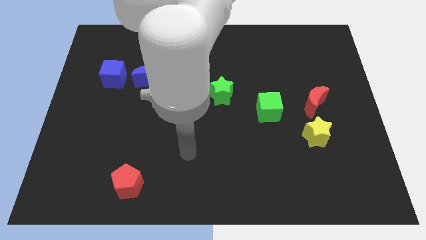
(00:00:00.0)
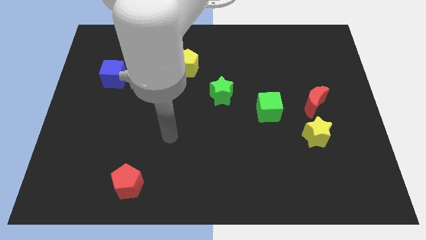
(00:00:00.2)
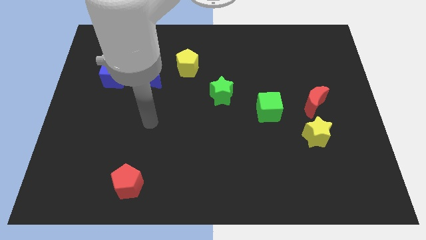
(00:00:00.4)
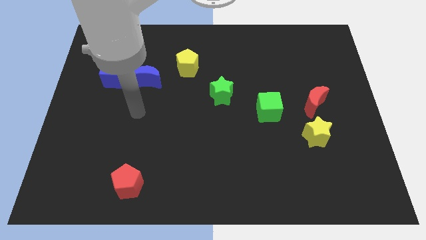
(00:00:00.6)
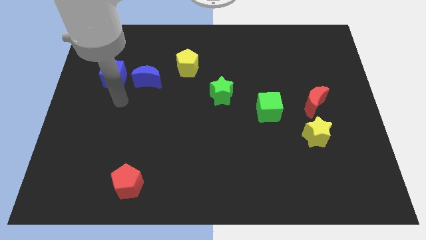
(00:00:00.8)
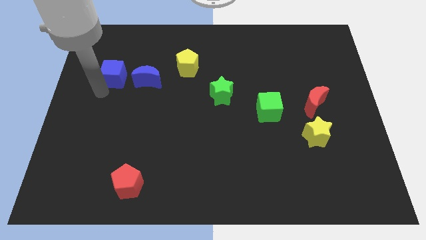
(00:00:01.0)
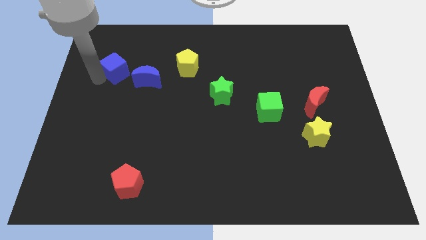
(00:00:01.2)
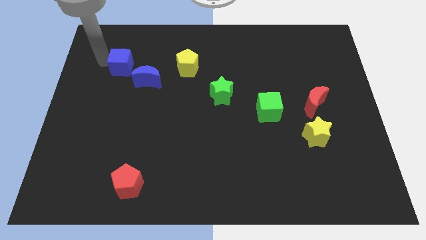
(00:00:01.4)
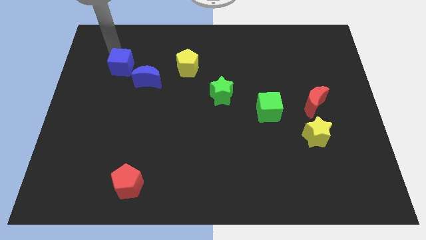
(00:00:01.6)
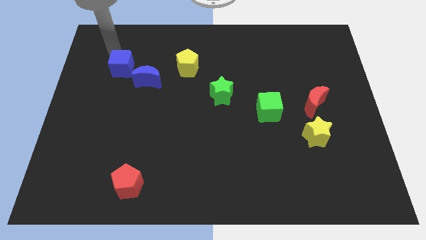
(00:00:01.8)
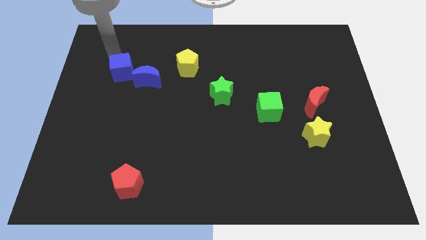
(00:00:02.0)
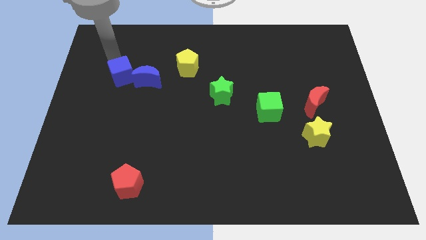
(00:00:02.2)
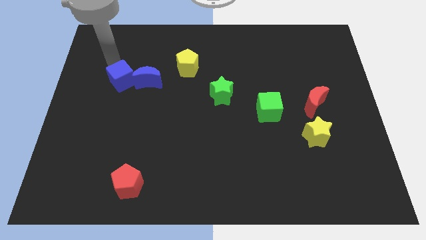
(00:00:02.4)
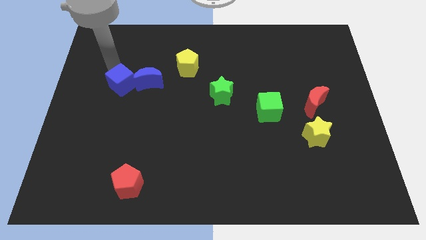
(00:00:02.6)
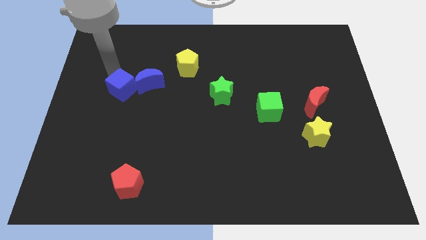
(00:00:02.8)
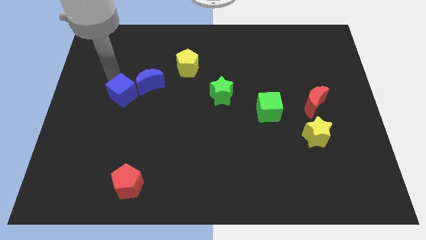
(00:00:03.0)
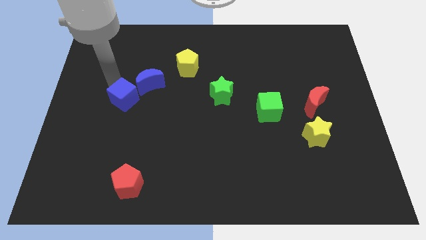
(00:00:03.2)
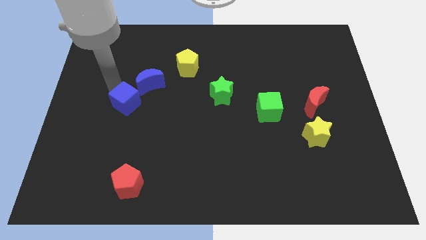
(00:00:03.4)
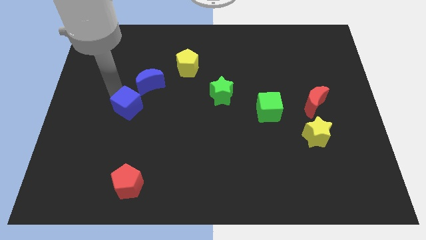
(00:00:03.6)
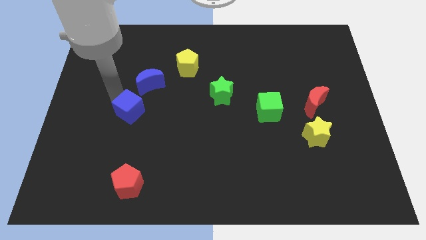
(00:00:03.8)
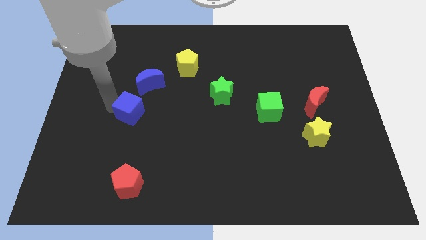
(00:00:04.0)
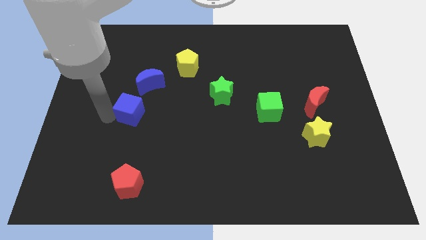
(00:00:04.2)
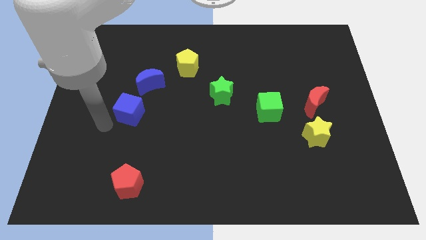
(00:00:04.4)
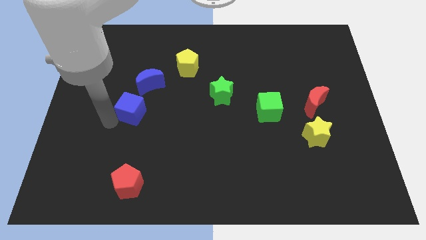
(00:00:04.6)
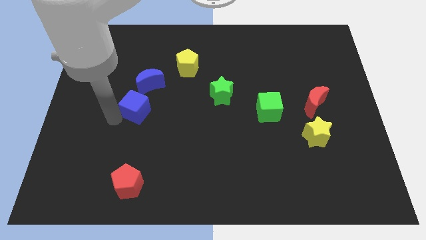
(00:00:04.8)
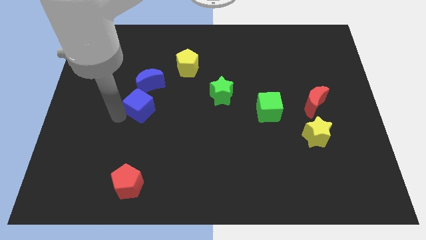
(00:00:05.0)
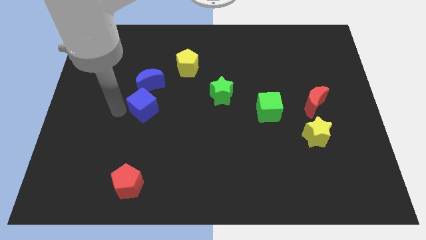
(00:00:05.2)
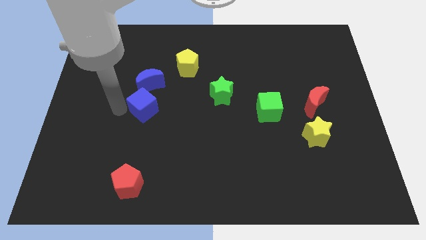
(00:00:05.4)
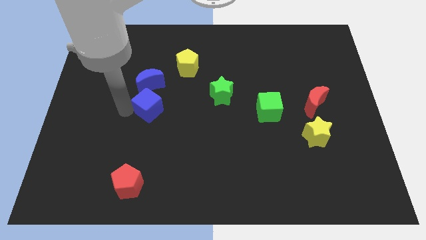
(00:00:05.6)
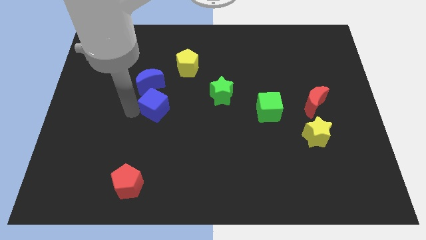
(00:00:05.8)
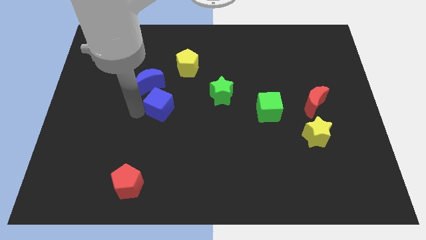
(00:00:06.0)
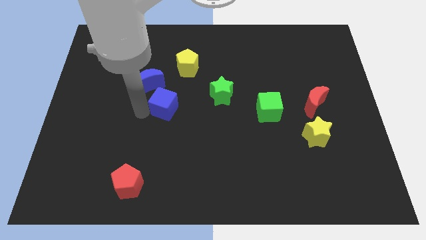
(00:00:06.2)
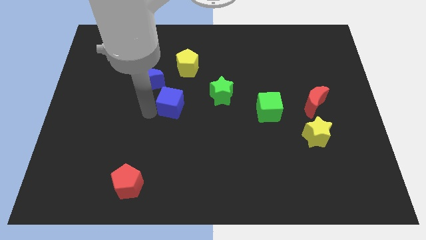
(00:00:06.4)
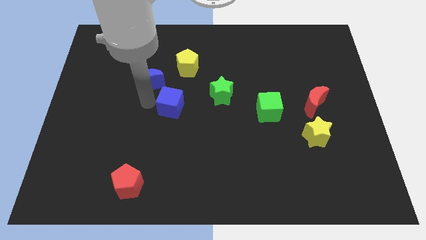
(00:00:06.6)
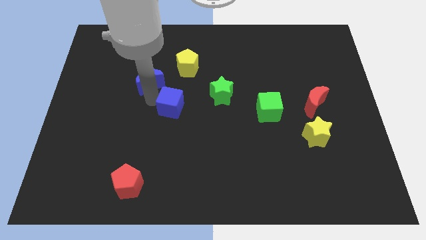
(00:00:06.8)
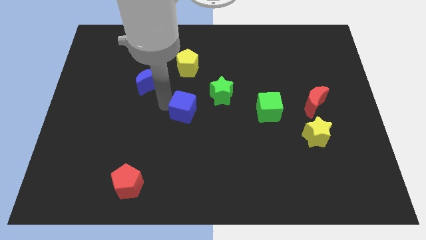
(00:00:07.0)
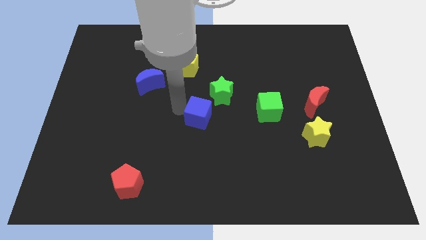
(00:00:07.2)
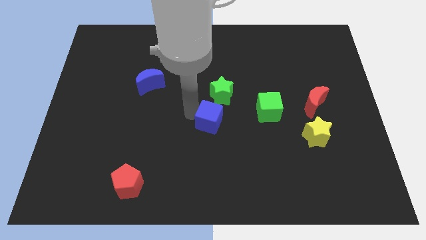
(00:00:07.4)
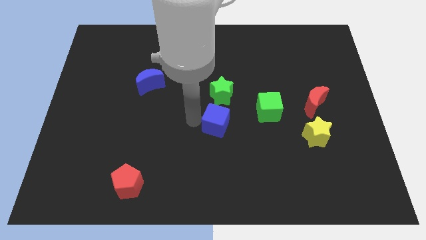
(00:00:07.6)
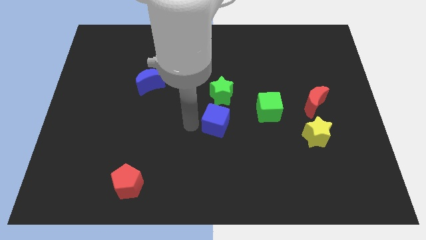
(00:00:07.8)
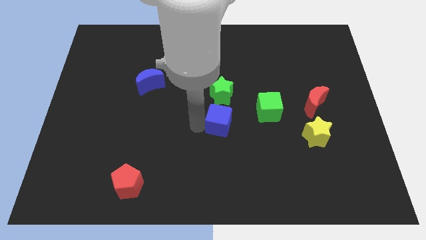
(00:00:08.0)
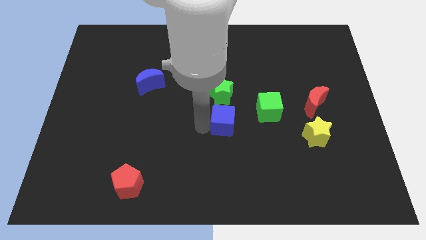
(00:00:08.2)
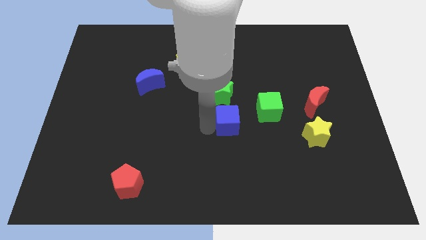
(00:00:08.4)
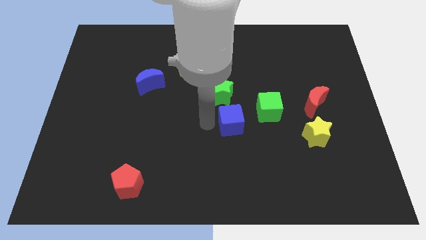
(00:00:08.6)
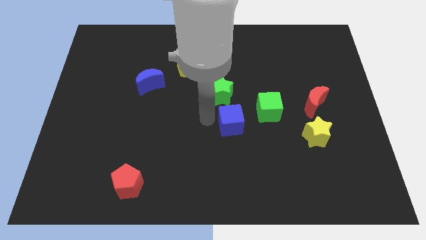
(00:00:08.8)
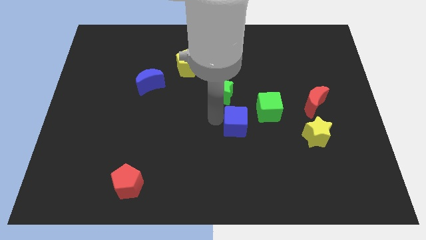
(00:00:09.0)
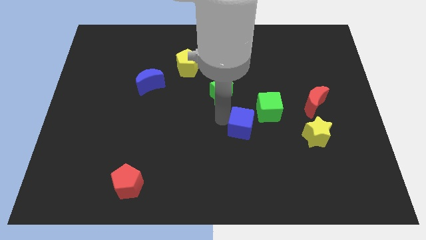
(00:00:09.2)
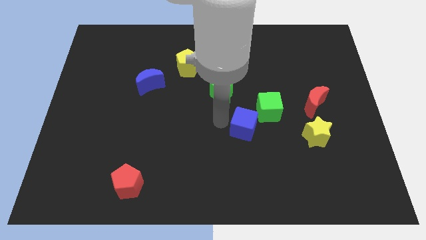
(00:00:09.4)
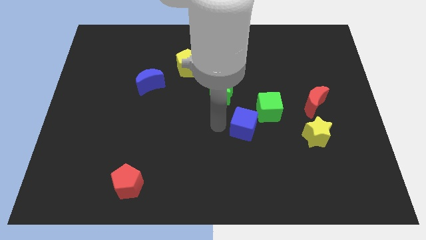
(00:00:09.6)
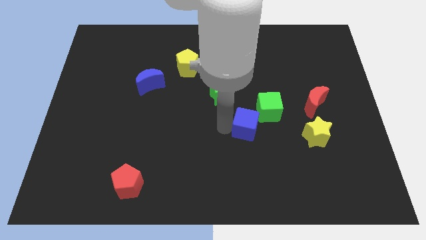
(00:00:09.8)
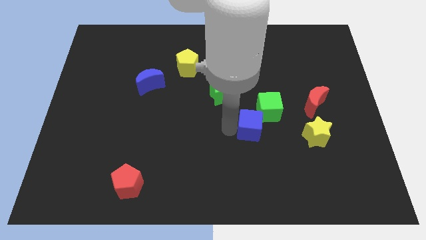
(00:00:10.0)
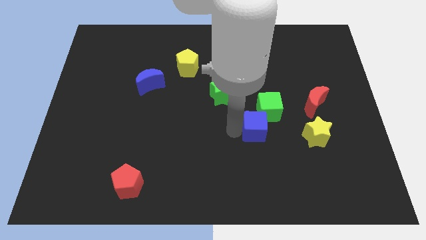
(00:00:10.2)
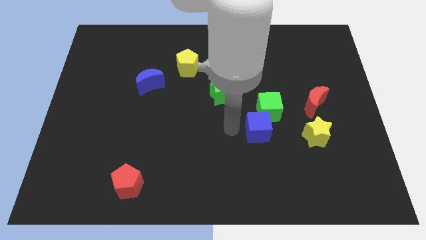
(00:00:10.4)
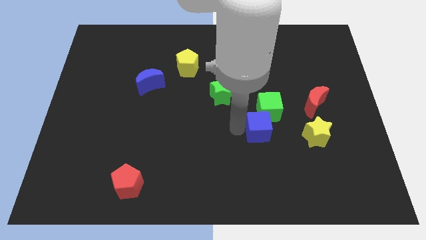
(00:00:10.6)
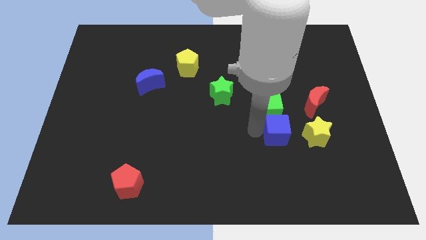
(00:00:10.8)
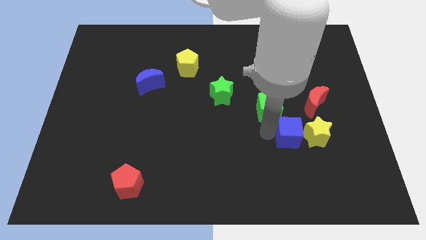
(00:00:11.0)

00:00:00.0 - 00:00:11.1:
push the blue cube towards the yellow star

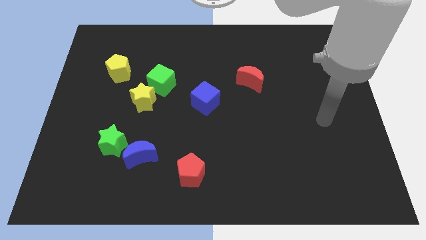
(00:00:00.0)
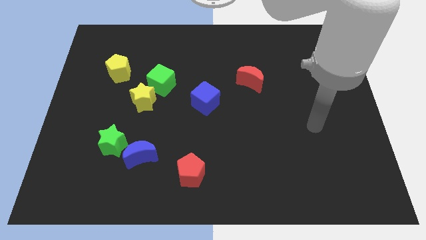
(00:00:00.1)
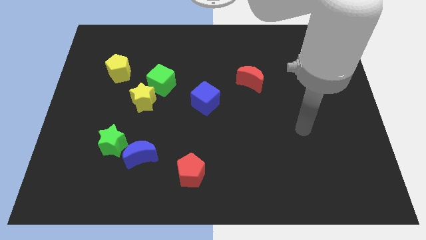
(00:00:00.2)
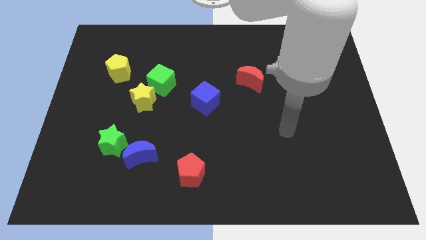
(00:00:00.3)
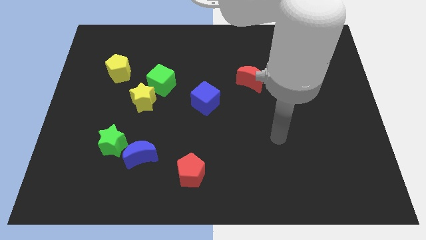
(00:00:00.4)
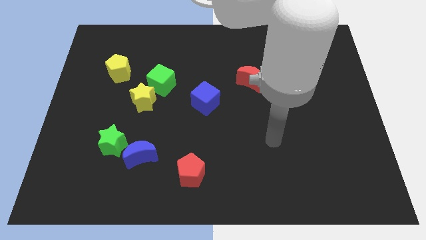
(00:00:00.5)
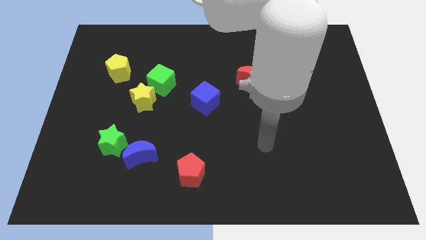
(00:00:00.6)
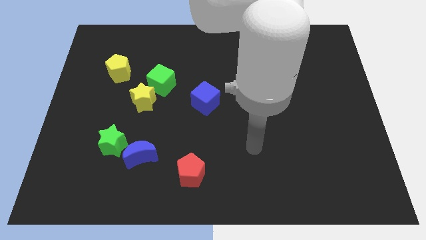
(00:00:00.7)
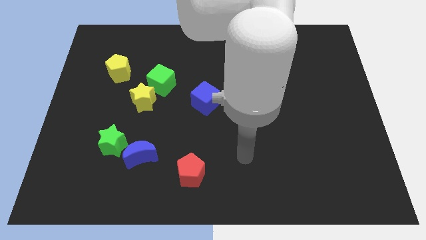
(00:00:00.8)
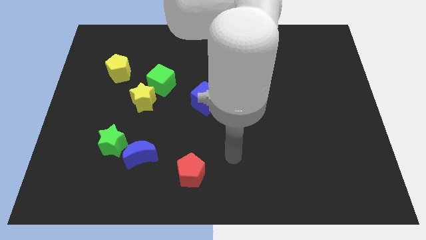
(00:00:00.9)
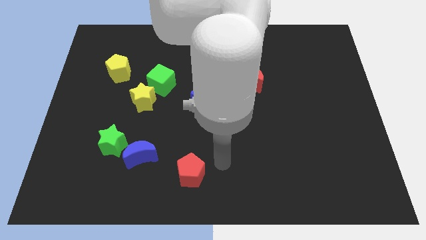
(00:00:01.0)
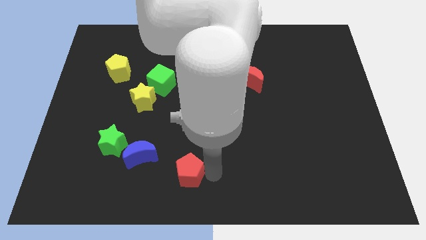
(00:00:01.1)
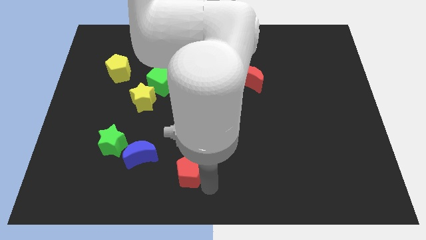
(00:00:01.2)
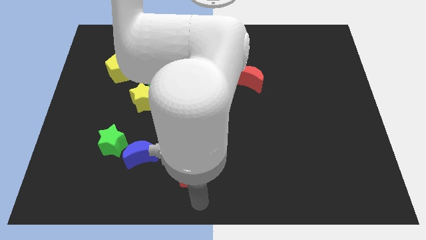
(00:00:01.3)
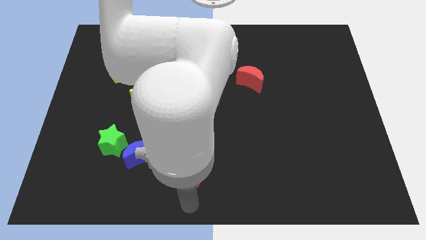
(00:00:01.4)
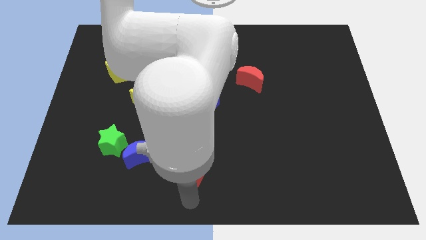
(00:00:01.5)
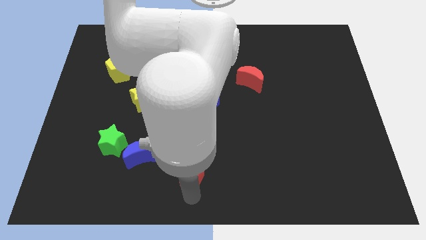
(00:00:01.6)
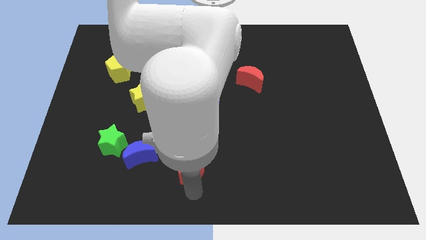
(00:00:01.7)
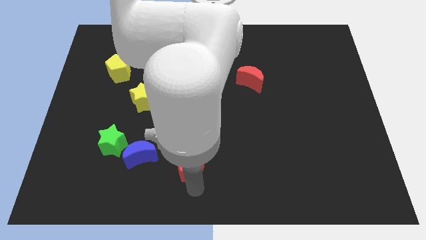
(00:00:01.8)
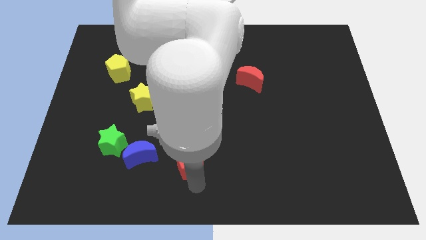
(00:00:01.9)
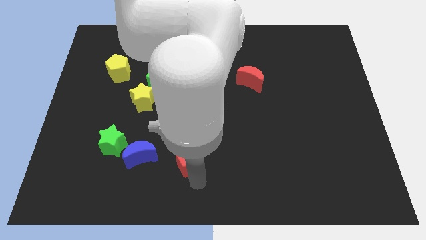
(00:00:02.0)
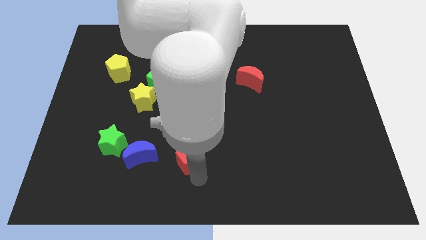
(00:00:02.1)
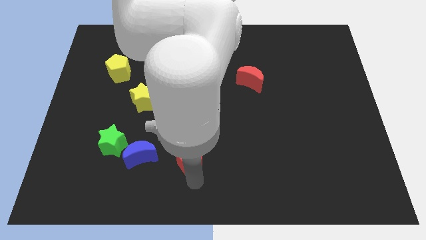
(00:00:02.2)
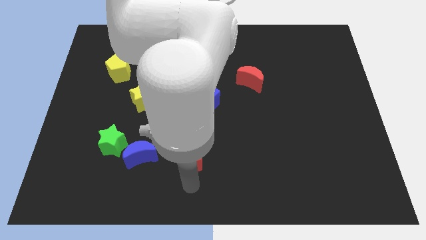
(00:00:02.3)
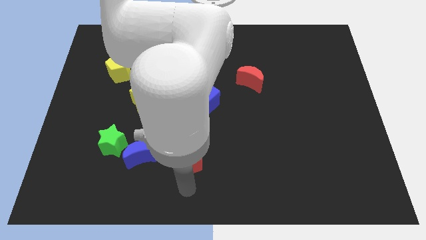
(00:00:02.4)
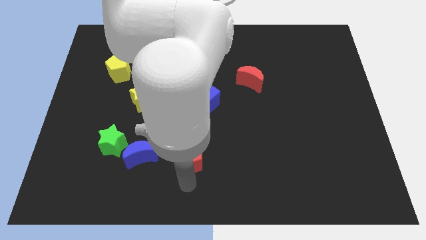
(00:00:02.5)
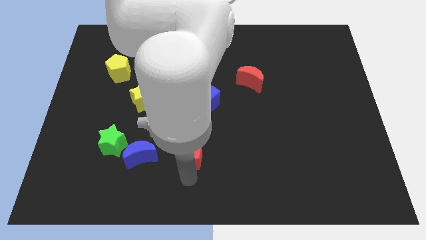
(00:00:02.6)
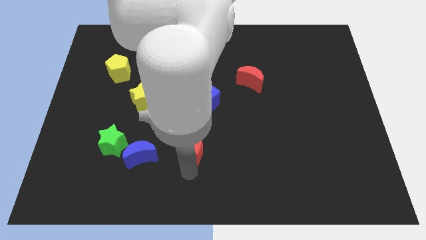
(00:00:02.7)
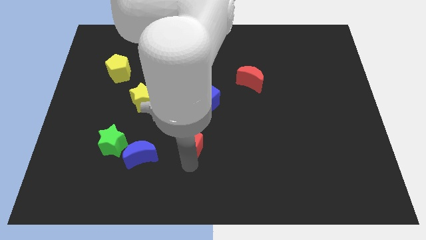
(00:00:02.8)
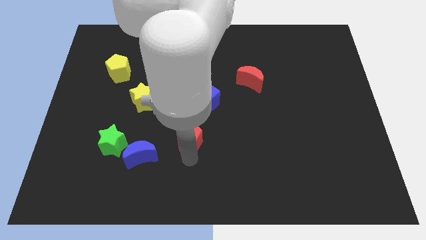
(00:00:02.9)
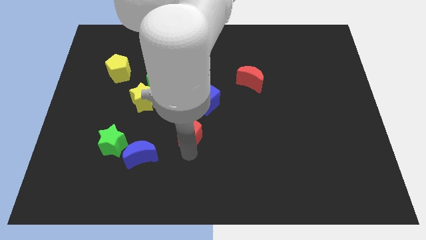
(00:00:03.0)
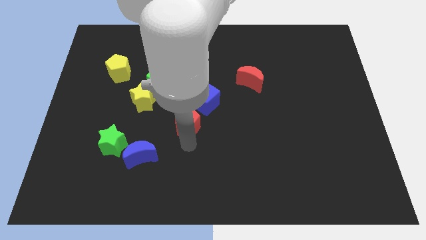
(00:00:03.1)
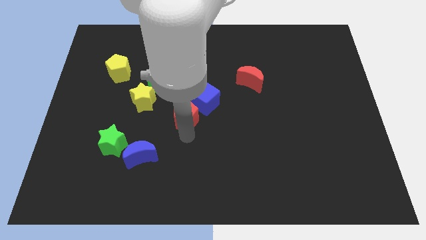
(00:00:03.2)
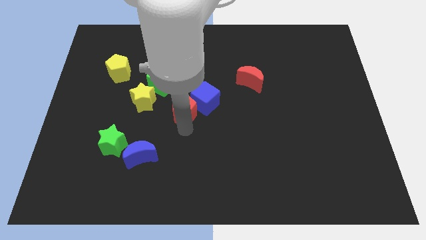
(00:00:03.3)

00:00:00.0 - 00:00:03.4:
push the red pentagon next to the blue cube
